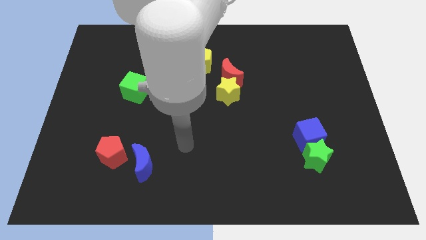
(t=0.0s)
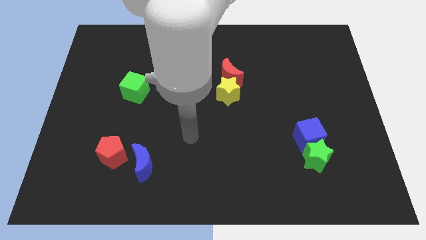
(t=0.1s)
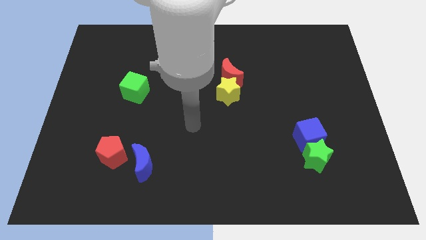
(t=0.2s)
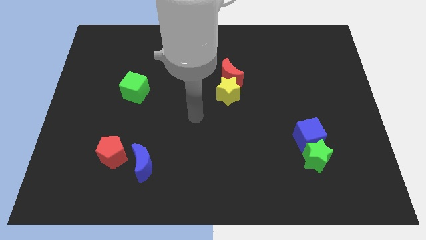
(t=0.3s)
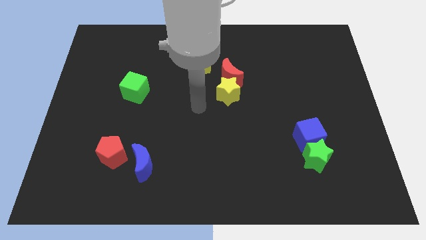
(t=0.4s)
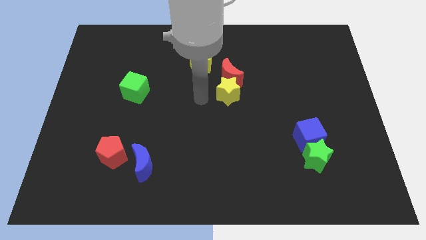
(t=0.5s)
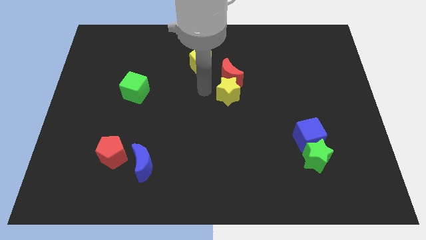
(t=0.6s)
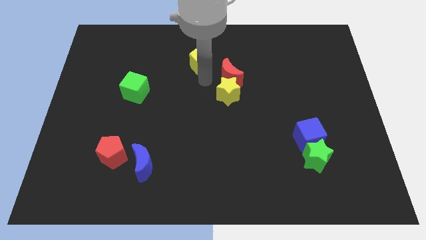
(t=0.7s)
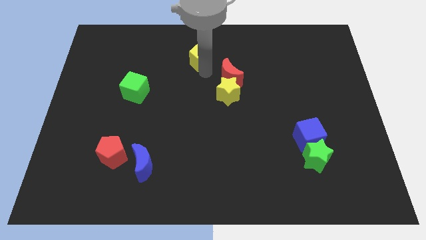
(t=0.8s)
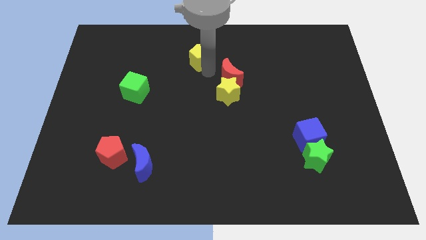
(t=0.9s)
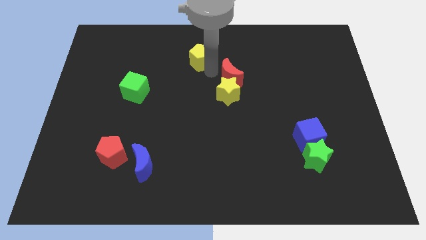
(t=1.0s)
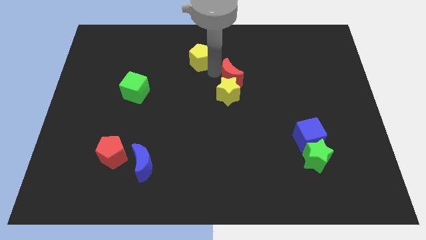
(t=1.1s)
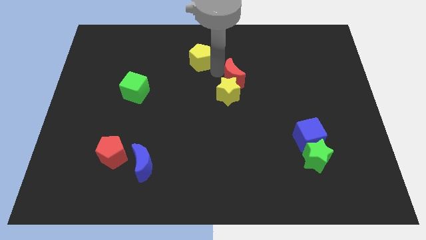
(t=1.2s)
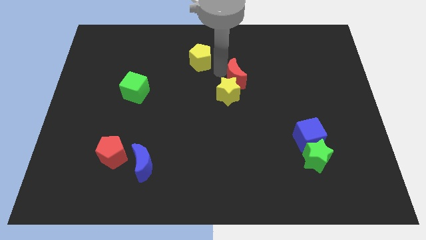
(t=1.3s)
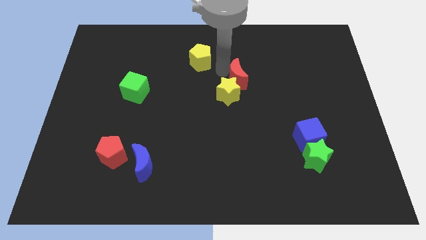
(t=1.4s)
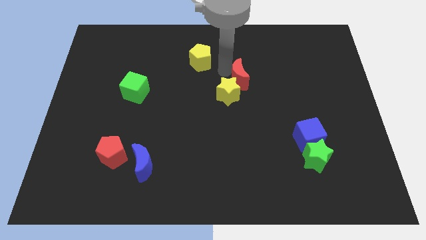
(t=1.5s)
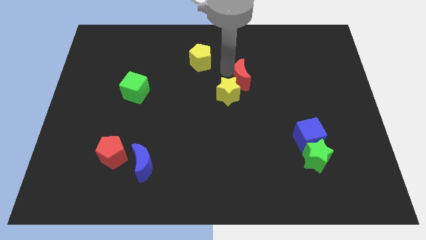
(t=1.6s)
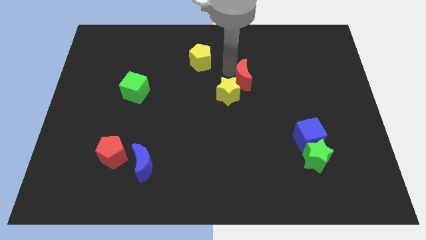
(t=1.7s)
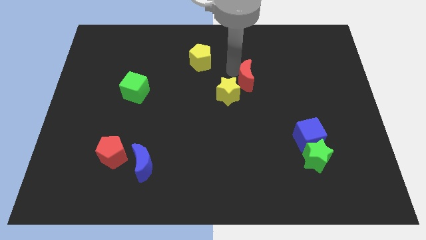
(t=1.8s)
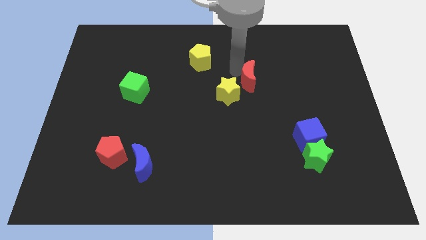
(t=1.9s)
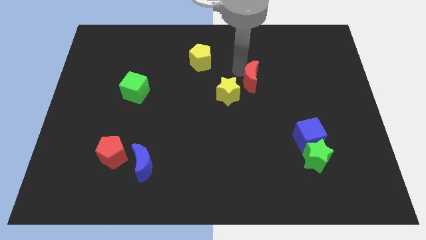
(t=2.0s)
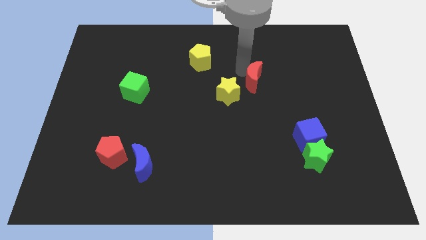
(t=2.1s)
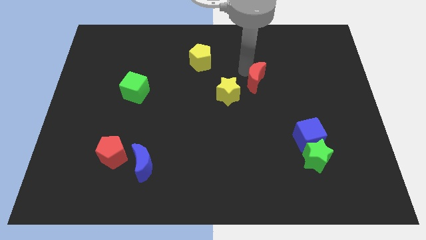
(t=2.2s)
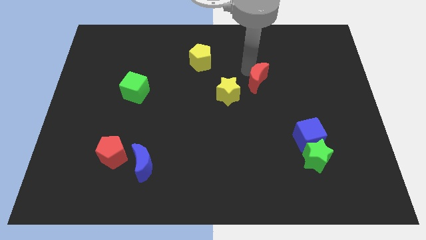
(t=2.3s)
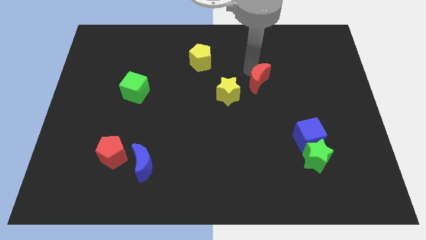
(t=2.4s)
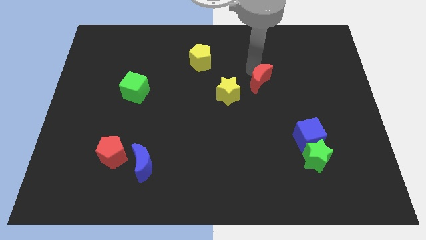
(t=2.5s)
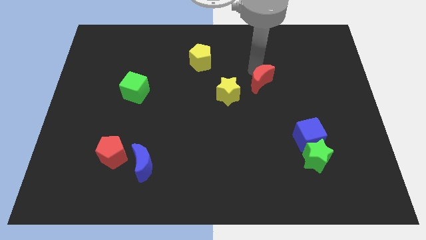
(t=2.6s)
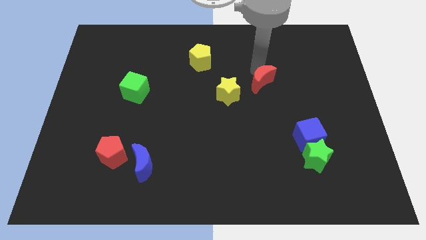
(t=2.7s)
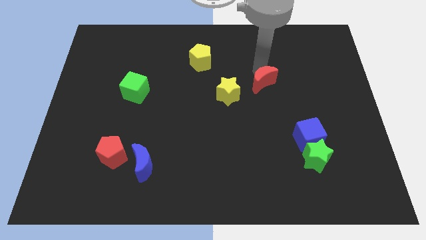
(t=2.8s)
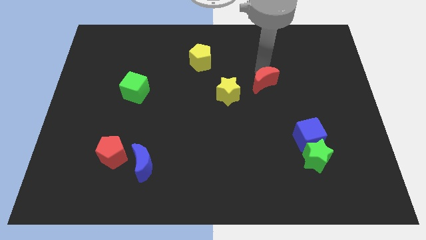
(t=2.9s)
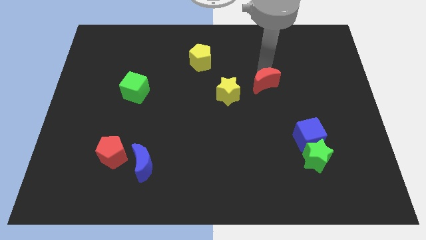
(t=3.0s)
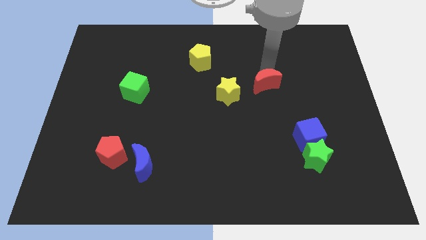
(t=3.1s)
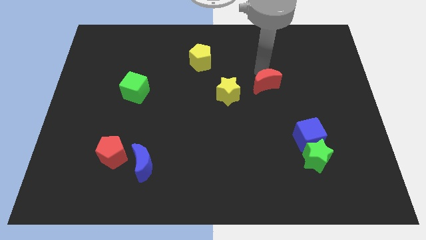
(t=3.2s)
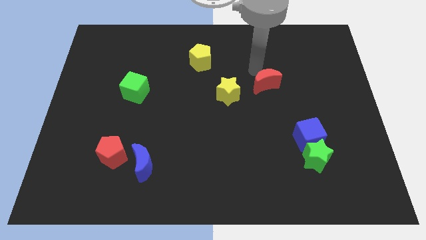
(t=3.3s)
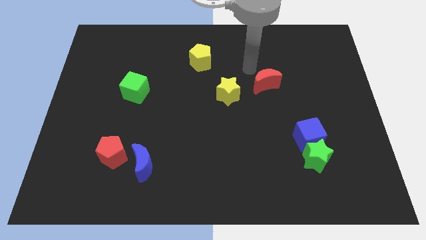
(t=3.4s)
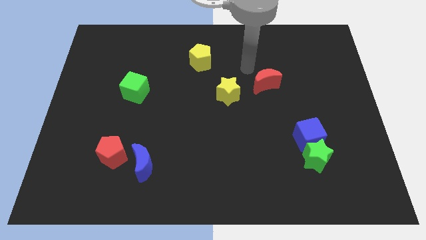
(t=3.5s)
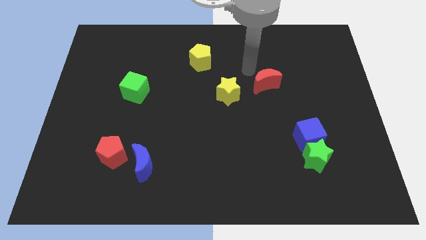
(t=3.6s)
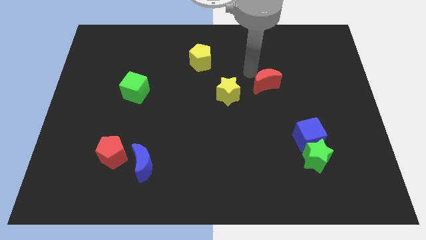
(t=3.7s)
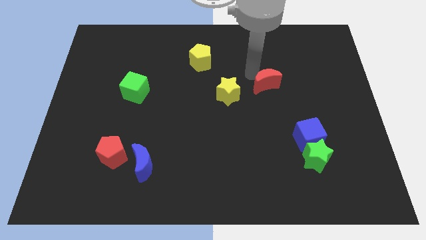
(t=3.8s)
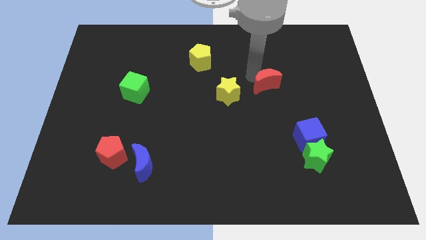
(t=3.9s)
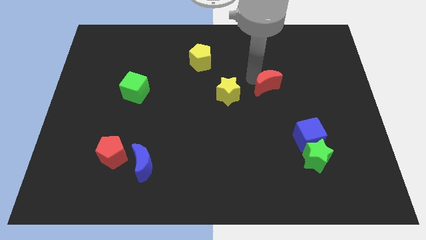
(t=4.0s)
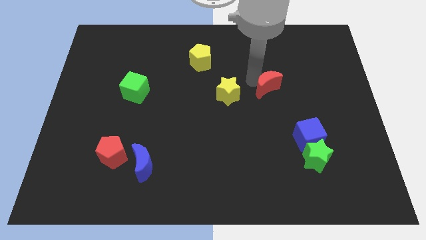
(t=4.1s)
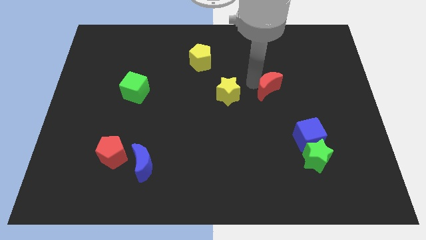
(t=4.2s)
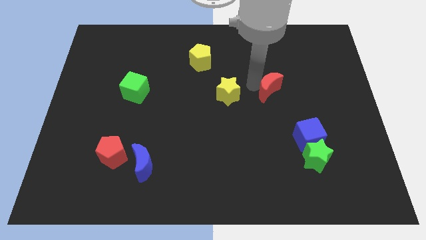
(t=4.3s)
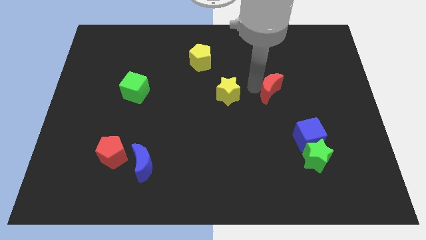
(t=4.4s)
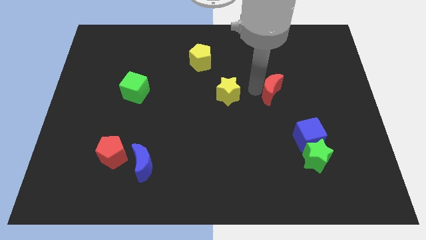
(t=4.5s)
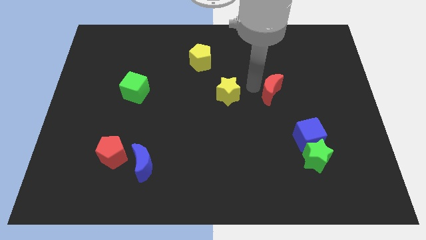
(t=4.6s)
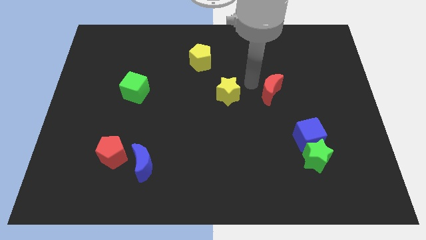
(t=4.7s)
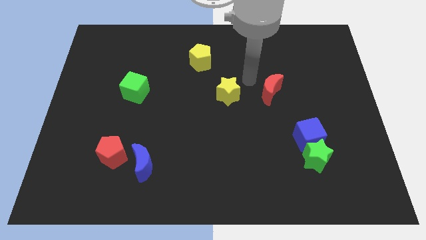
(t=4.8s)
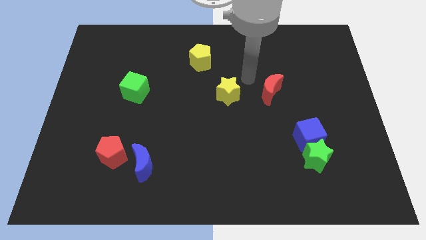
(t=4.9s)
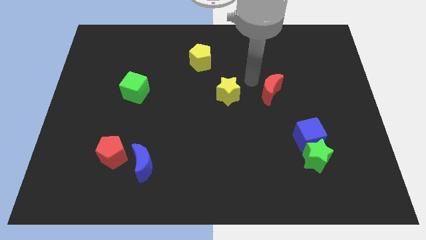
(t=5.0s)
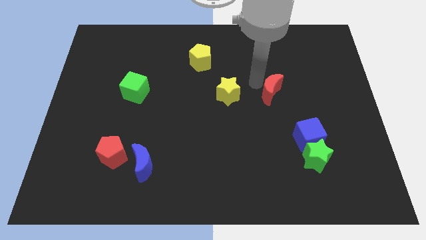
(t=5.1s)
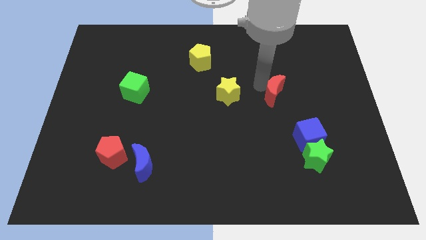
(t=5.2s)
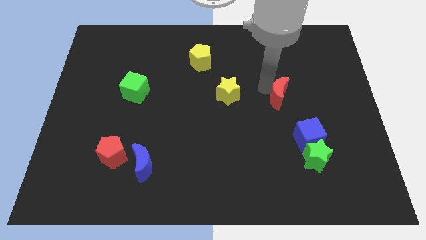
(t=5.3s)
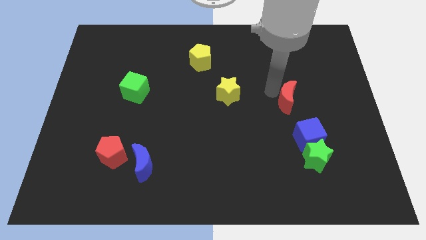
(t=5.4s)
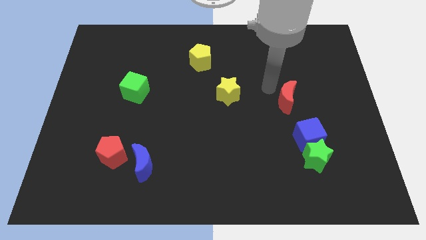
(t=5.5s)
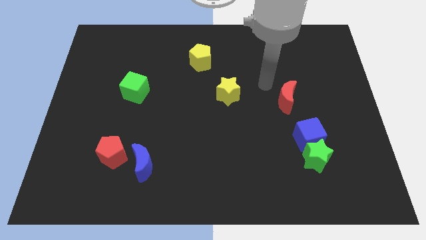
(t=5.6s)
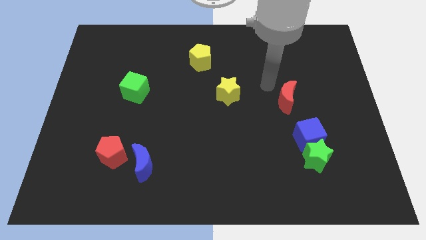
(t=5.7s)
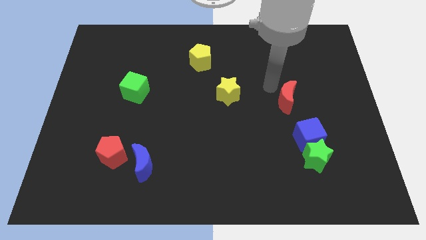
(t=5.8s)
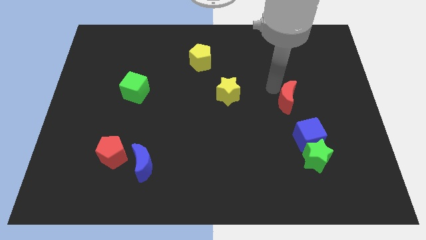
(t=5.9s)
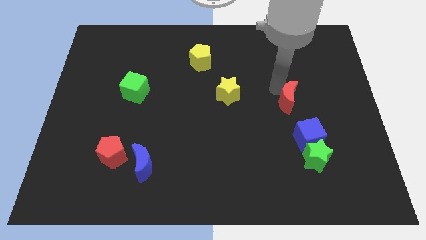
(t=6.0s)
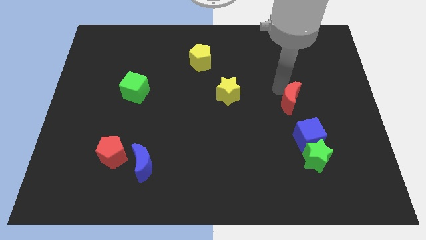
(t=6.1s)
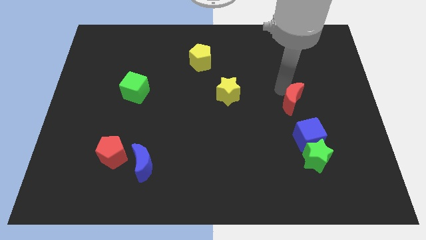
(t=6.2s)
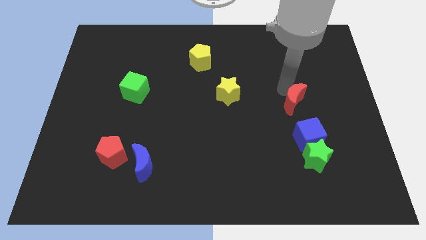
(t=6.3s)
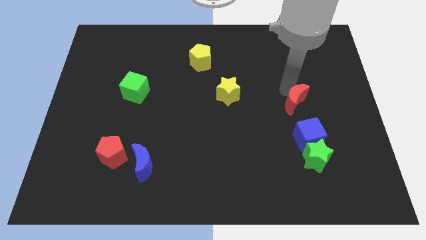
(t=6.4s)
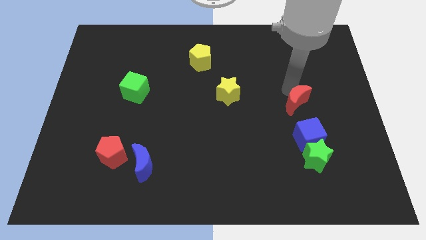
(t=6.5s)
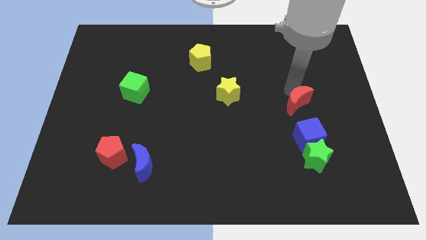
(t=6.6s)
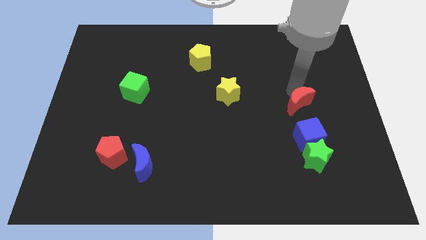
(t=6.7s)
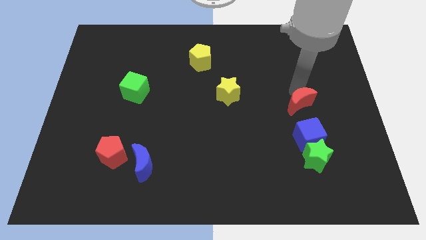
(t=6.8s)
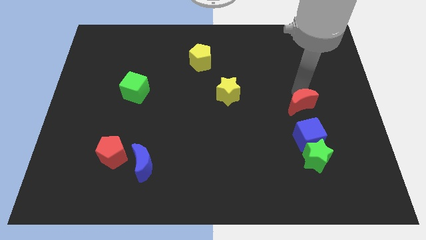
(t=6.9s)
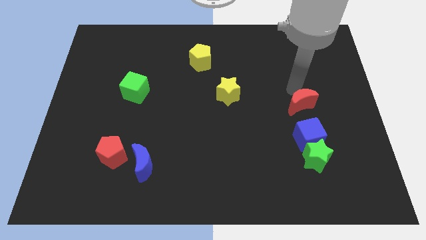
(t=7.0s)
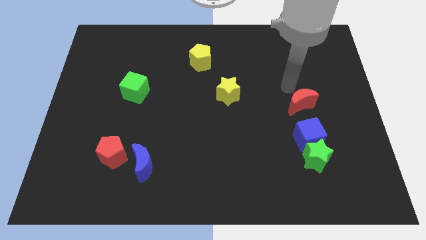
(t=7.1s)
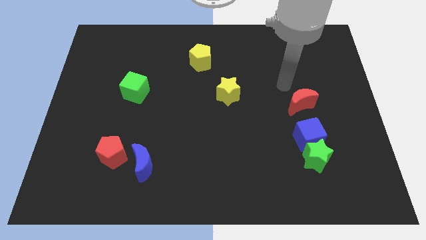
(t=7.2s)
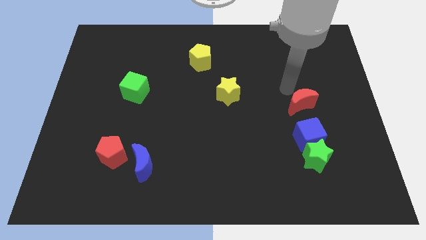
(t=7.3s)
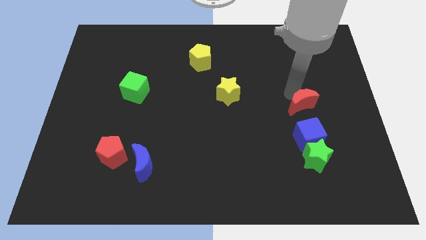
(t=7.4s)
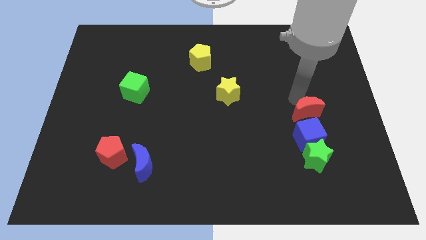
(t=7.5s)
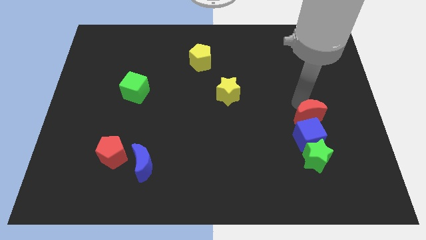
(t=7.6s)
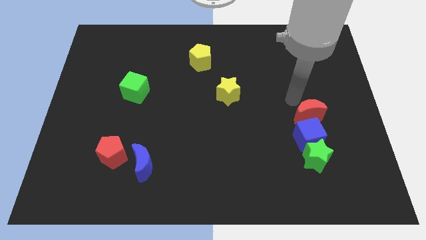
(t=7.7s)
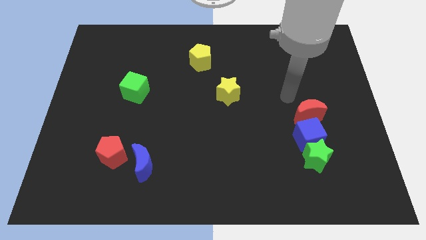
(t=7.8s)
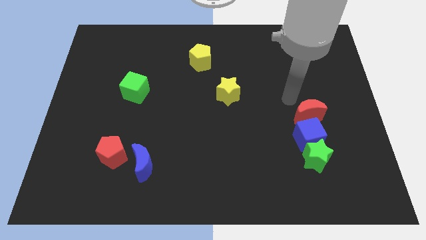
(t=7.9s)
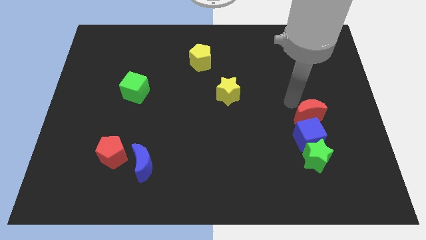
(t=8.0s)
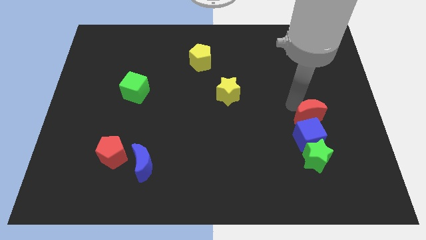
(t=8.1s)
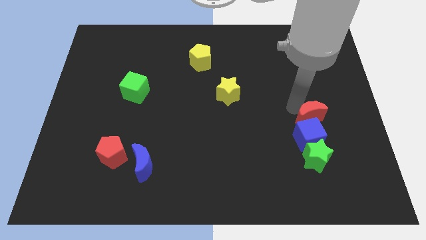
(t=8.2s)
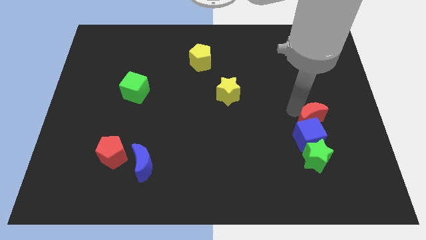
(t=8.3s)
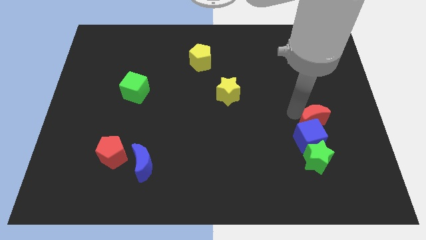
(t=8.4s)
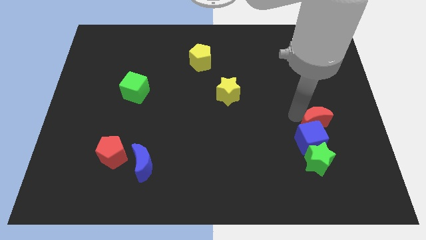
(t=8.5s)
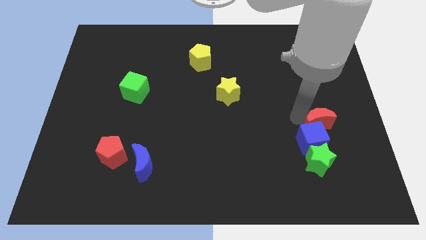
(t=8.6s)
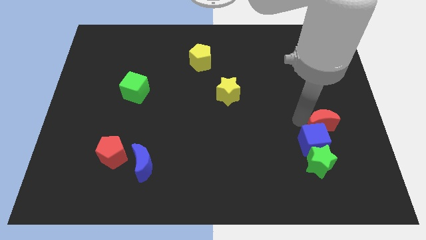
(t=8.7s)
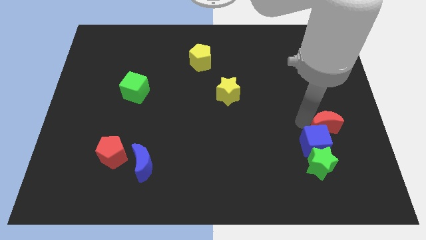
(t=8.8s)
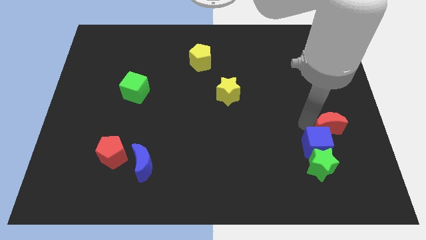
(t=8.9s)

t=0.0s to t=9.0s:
move the red moon diagonally up and to the right of the green star
